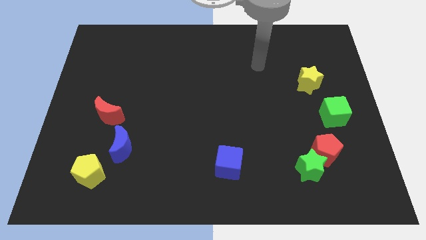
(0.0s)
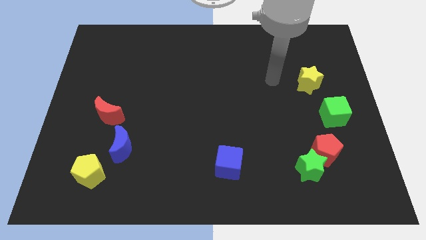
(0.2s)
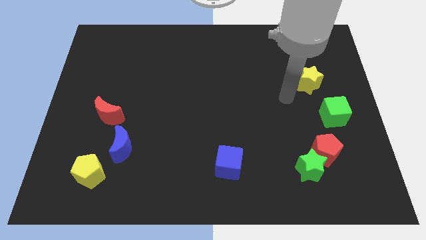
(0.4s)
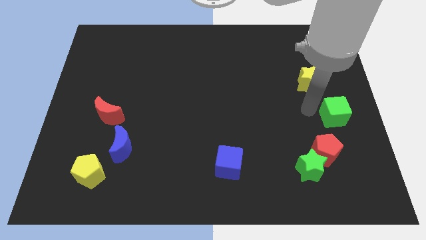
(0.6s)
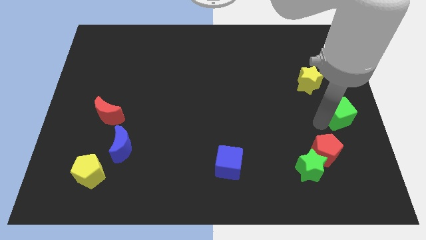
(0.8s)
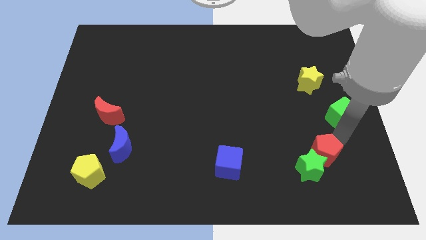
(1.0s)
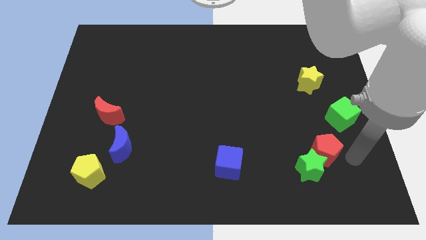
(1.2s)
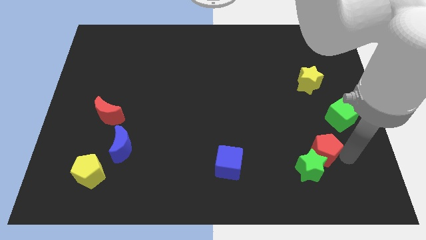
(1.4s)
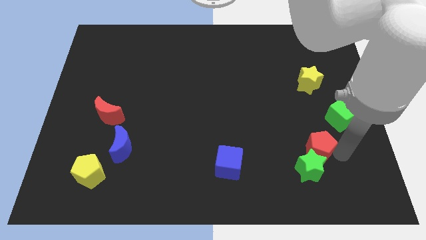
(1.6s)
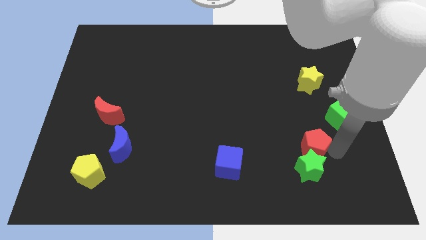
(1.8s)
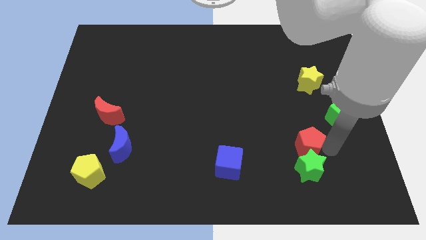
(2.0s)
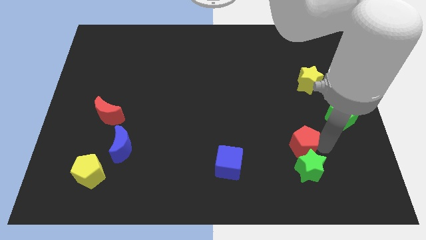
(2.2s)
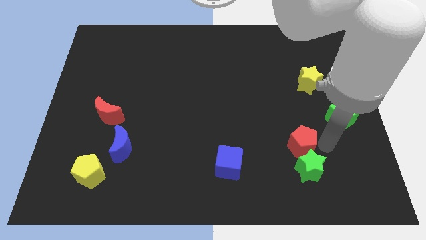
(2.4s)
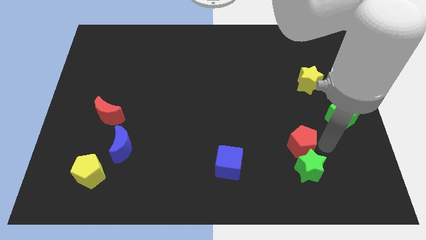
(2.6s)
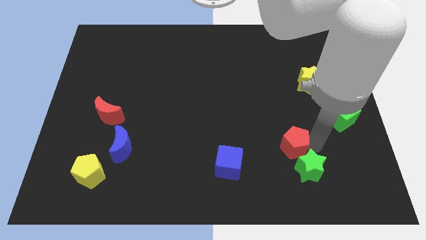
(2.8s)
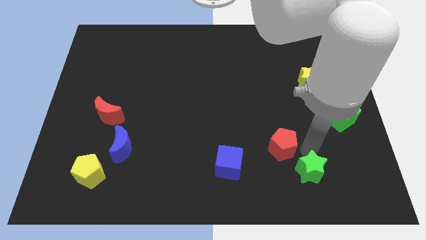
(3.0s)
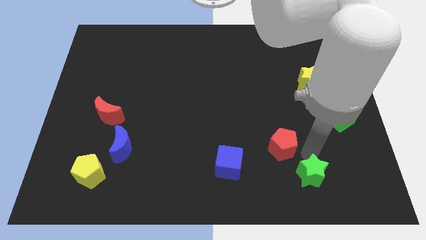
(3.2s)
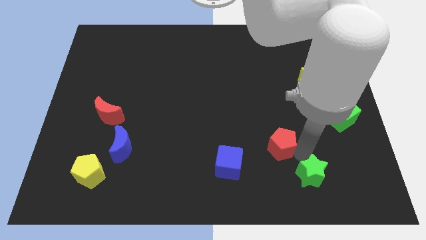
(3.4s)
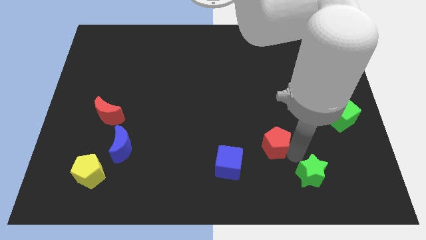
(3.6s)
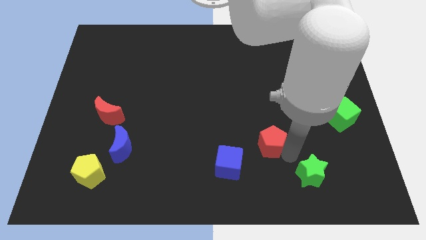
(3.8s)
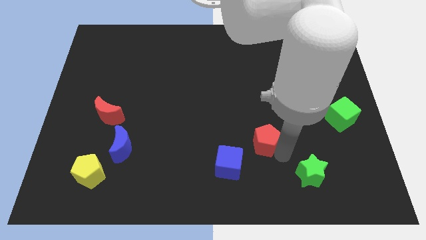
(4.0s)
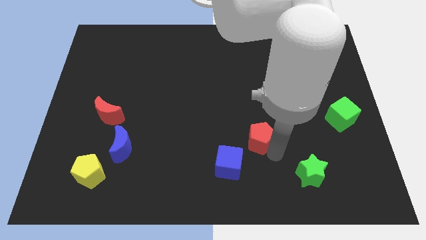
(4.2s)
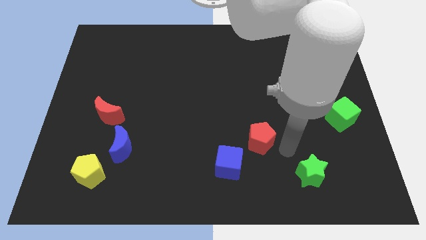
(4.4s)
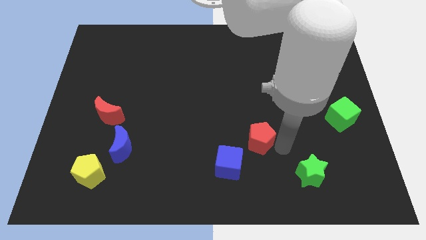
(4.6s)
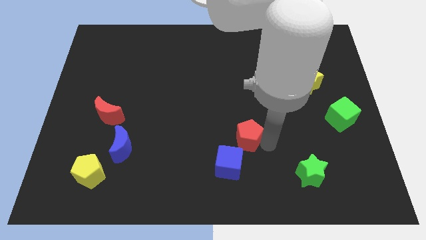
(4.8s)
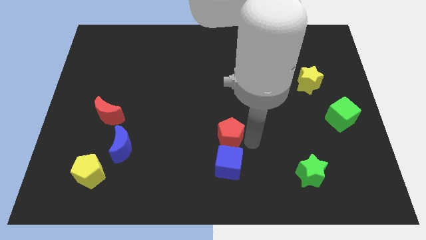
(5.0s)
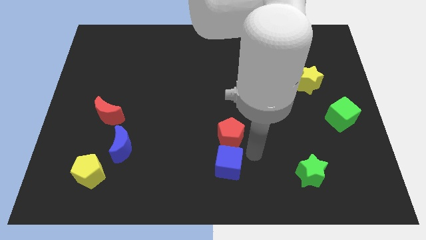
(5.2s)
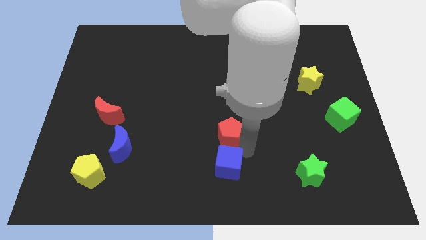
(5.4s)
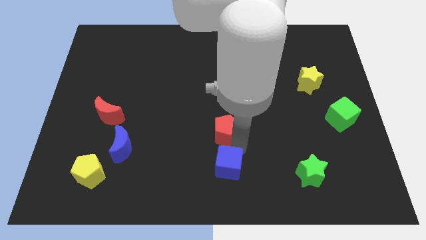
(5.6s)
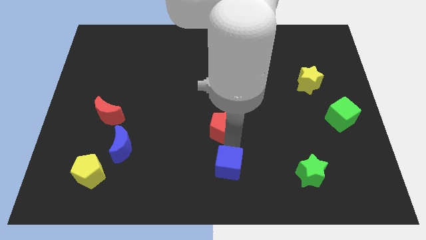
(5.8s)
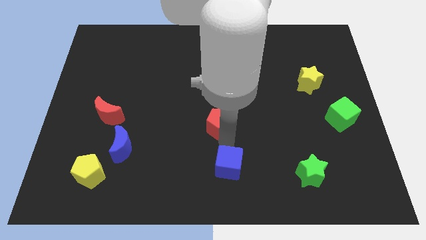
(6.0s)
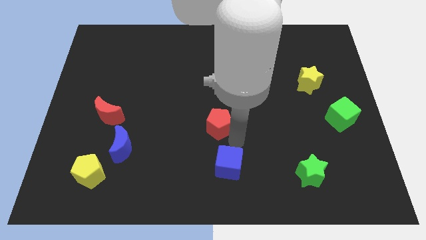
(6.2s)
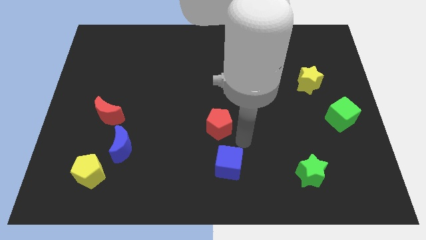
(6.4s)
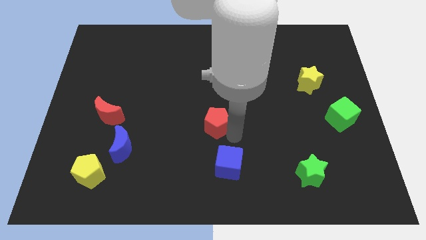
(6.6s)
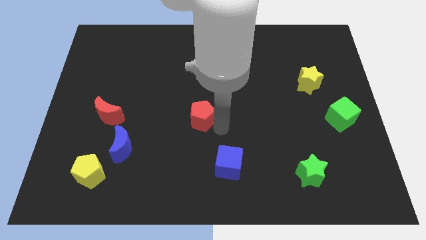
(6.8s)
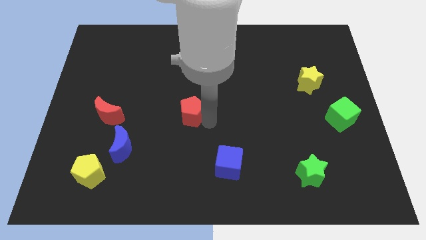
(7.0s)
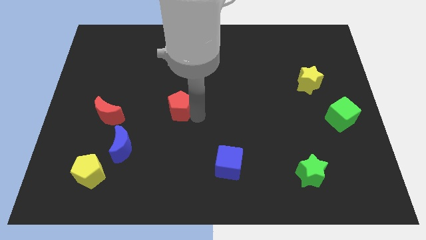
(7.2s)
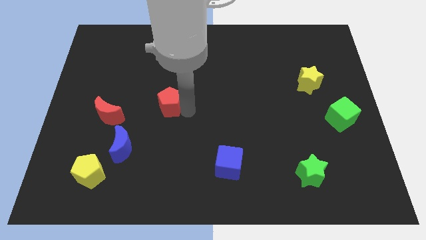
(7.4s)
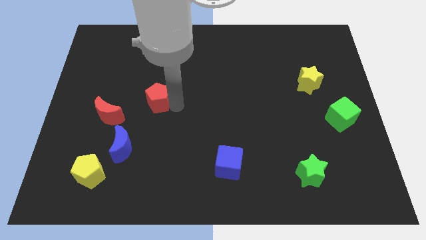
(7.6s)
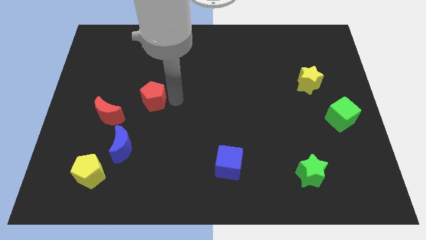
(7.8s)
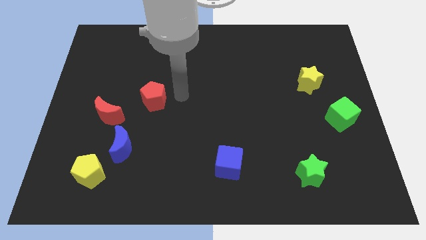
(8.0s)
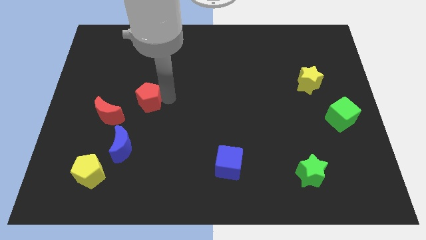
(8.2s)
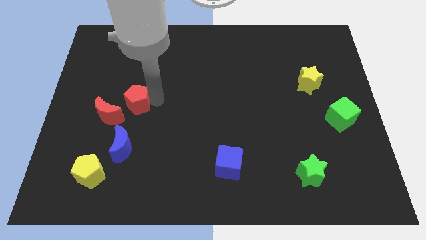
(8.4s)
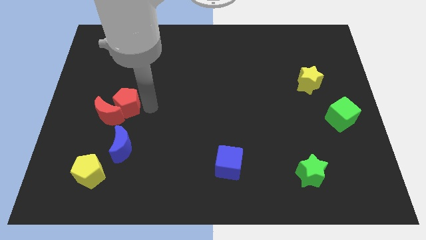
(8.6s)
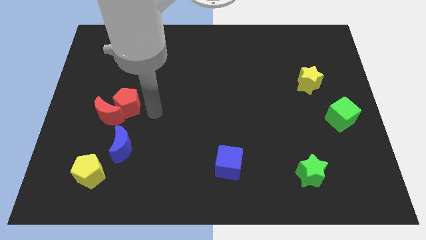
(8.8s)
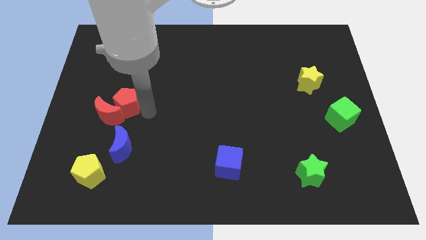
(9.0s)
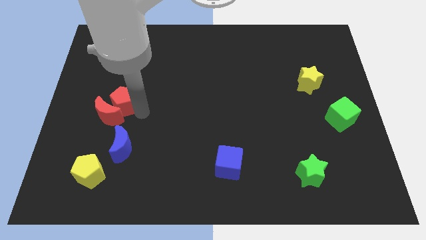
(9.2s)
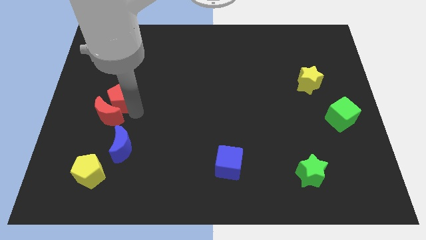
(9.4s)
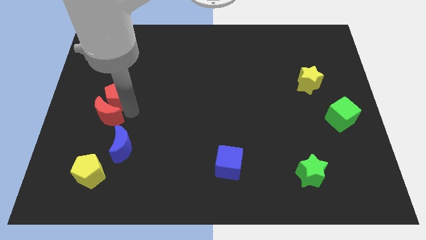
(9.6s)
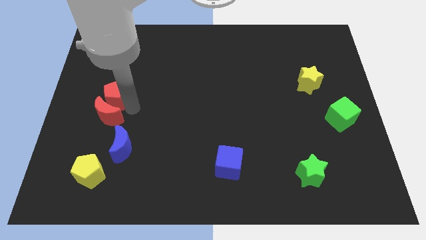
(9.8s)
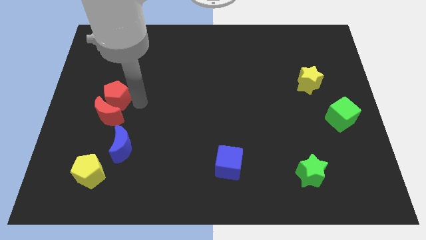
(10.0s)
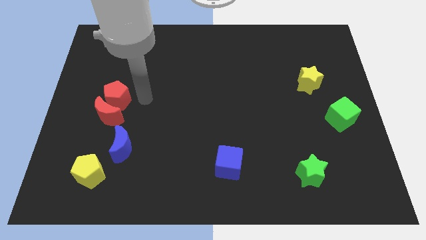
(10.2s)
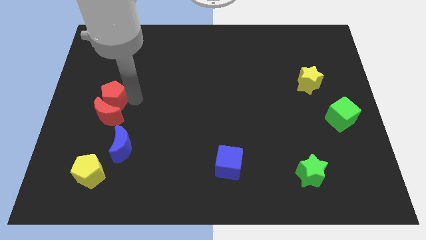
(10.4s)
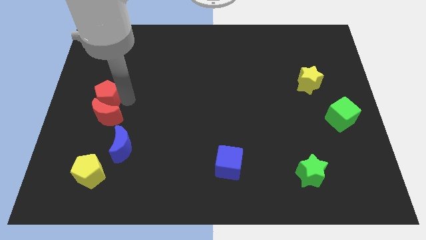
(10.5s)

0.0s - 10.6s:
put the red pentagon to the center left

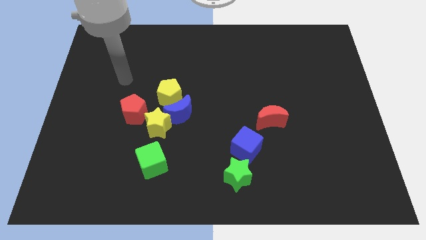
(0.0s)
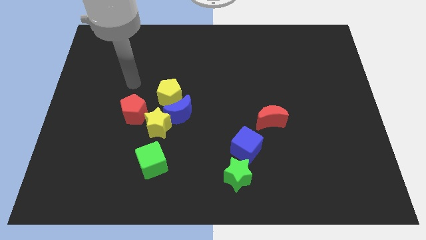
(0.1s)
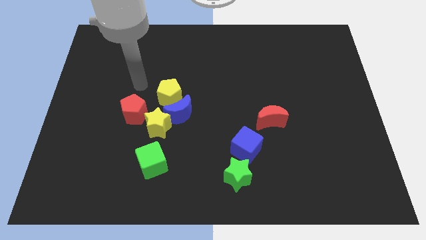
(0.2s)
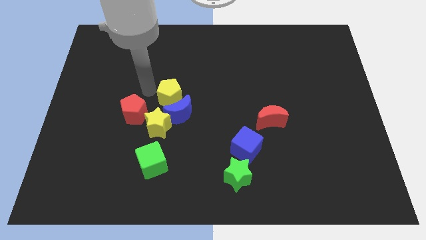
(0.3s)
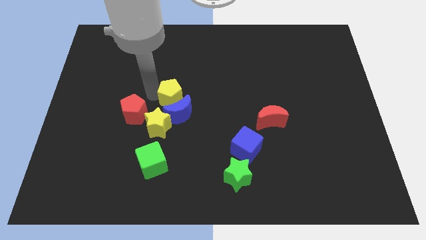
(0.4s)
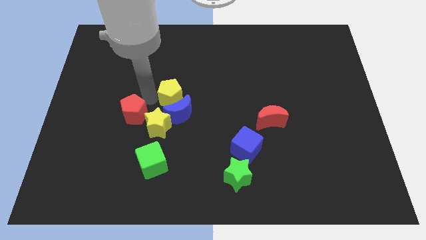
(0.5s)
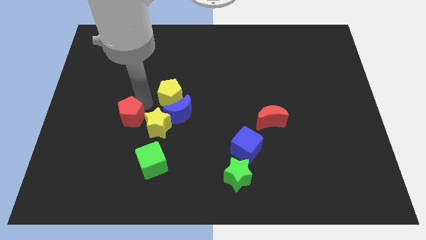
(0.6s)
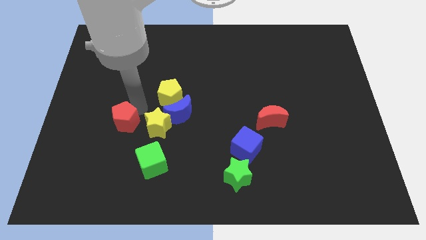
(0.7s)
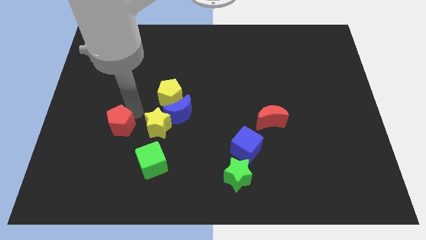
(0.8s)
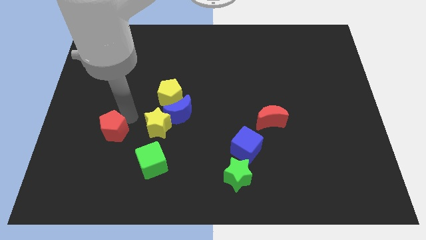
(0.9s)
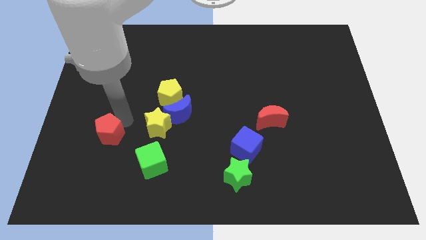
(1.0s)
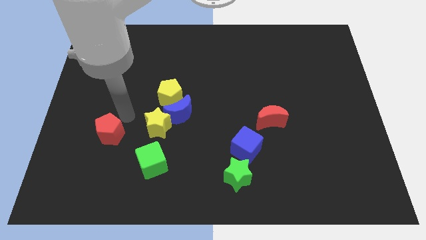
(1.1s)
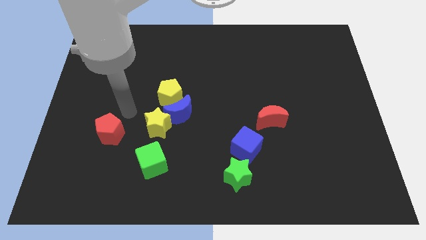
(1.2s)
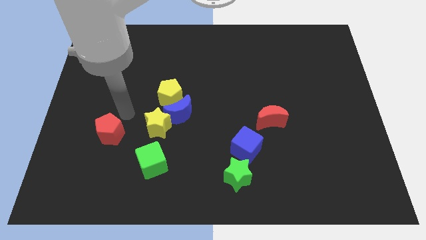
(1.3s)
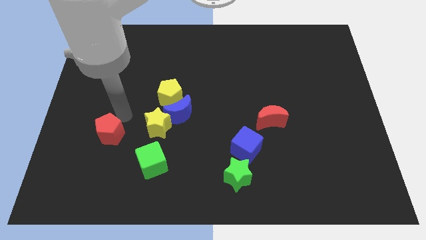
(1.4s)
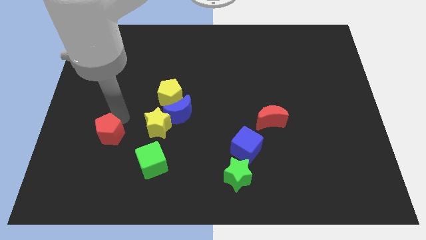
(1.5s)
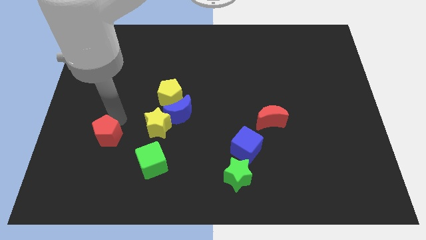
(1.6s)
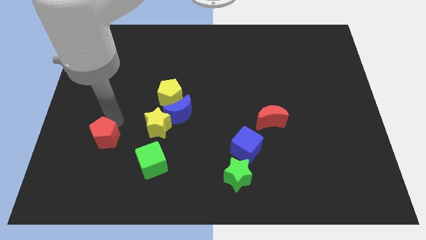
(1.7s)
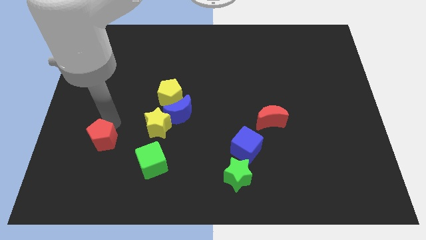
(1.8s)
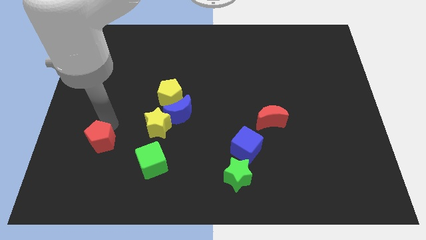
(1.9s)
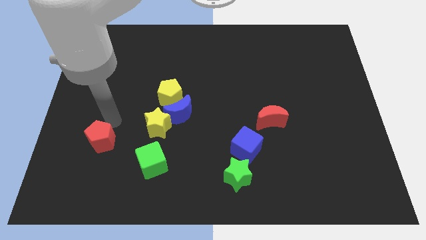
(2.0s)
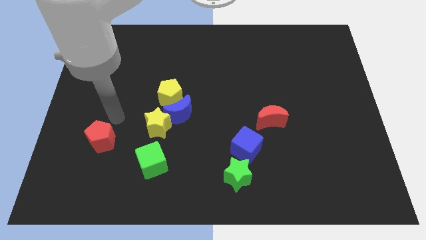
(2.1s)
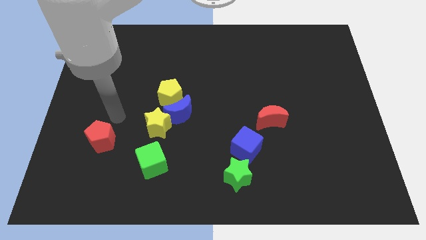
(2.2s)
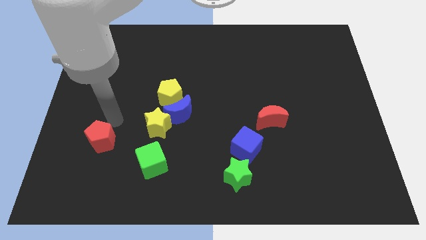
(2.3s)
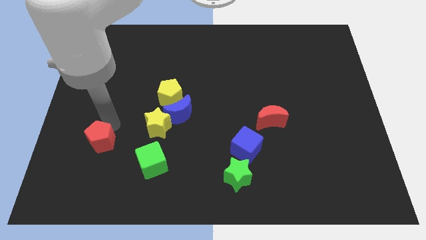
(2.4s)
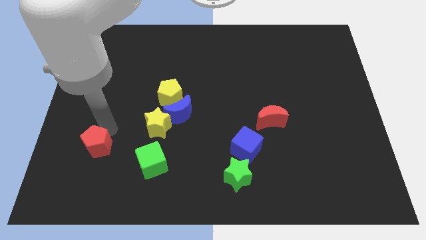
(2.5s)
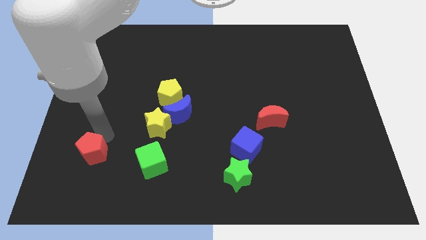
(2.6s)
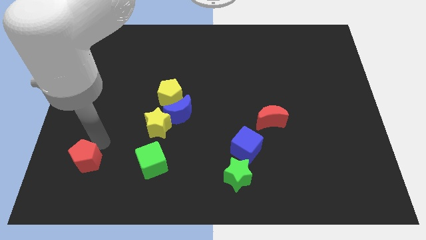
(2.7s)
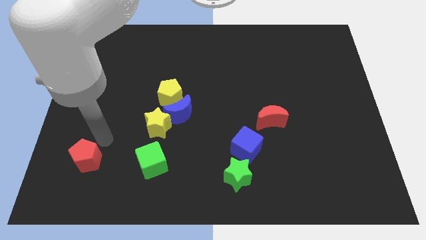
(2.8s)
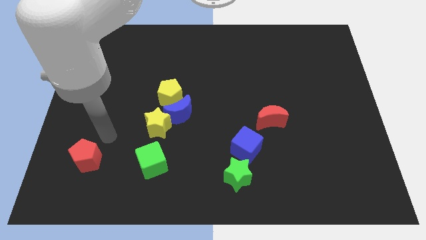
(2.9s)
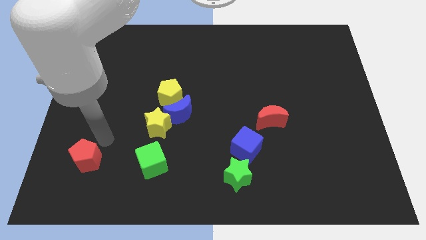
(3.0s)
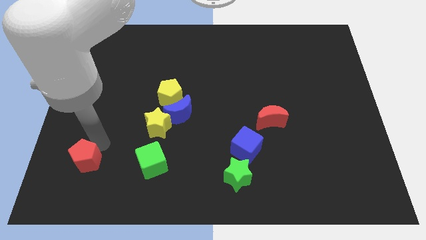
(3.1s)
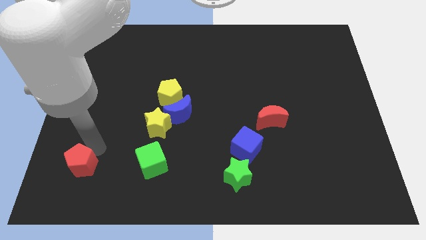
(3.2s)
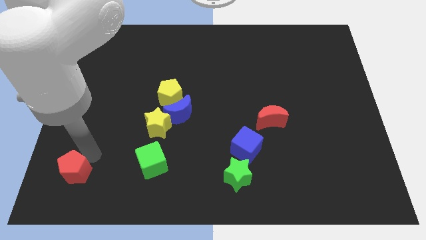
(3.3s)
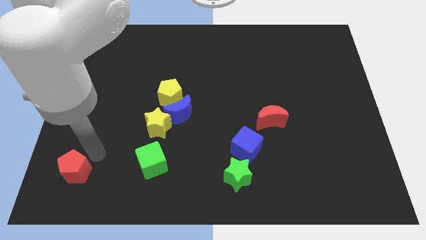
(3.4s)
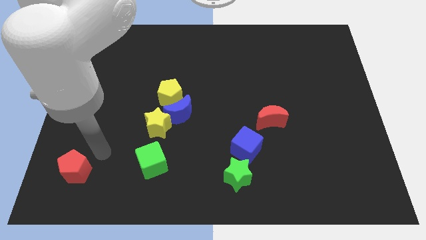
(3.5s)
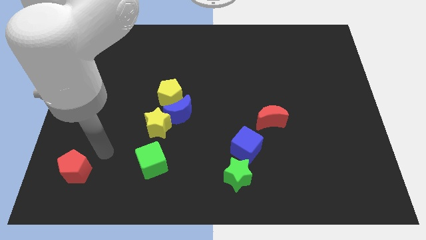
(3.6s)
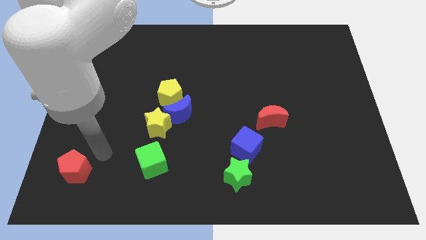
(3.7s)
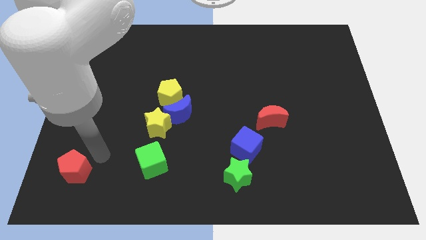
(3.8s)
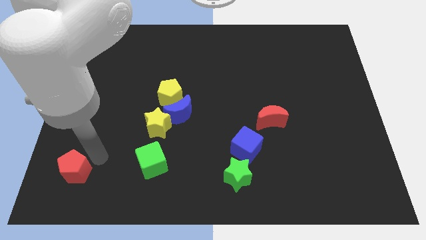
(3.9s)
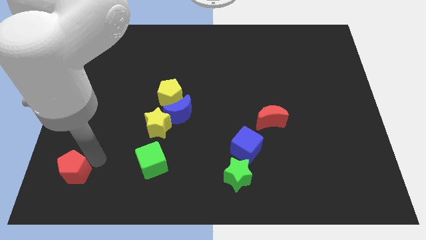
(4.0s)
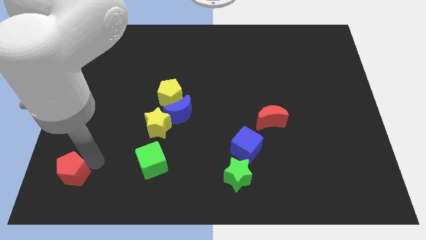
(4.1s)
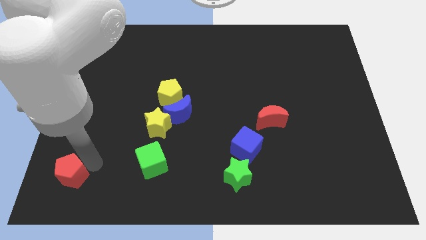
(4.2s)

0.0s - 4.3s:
move the red pentagon to the bottom left of the board
